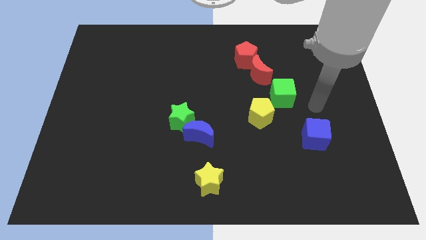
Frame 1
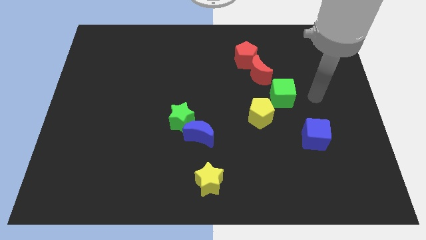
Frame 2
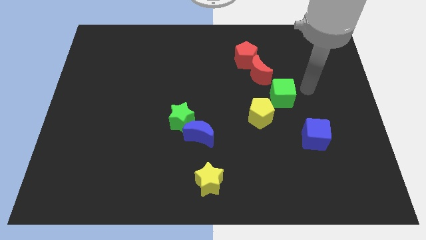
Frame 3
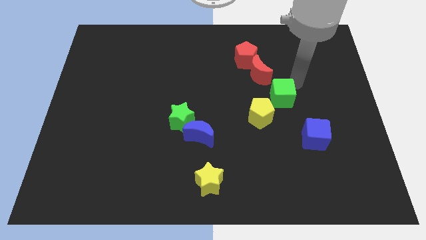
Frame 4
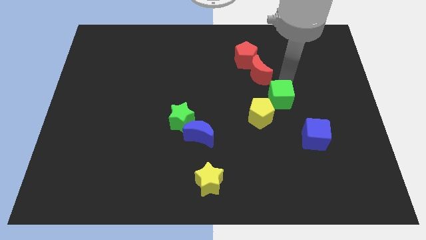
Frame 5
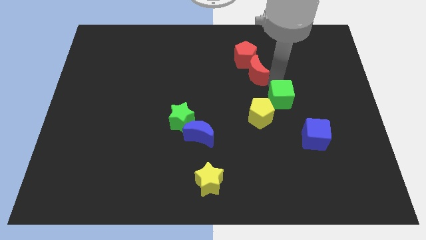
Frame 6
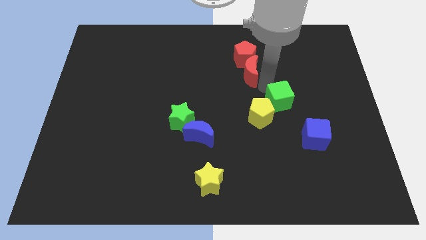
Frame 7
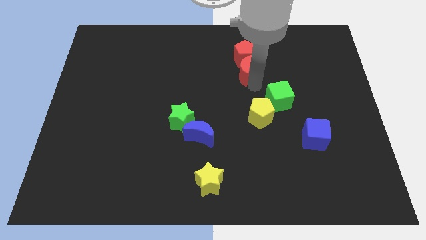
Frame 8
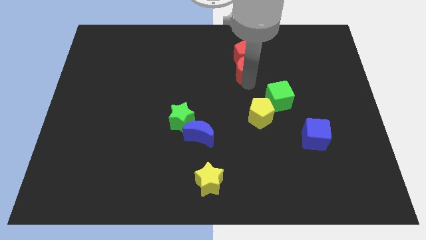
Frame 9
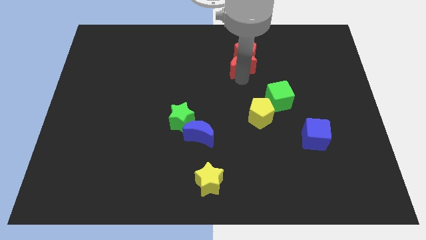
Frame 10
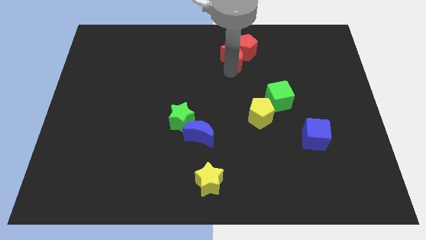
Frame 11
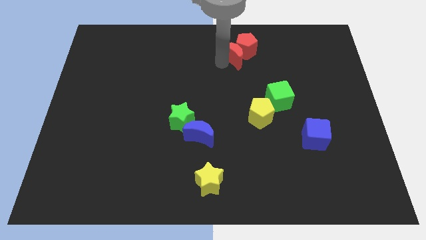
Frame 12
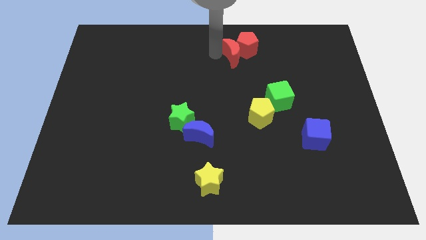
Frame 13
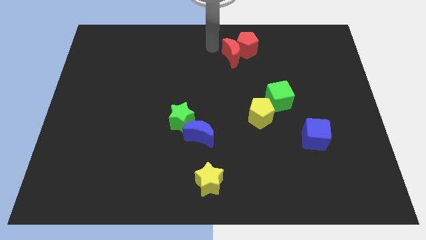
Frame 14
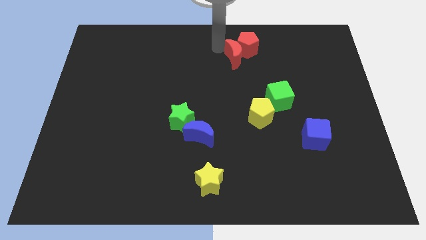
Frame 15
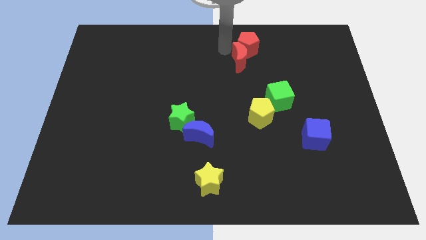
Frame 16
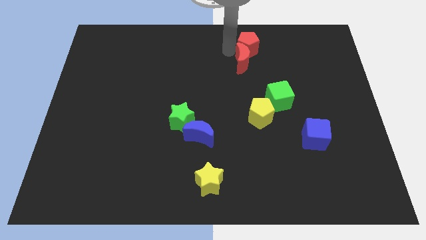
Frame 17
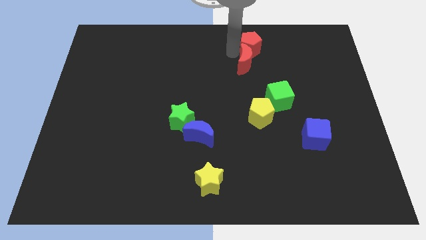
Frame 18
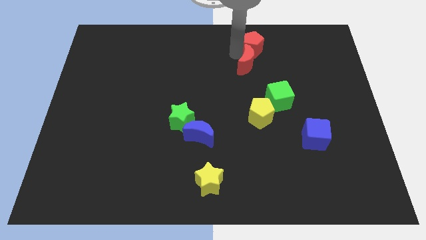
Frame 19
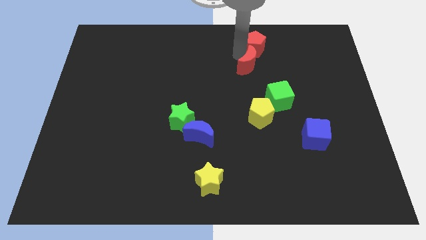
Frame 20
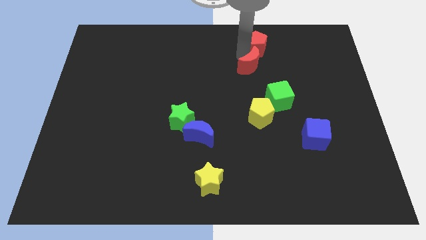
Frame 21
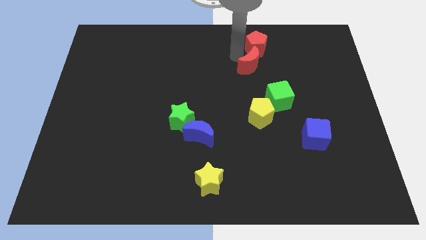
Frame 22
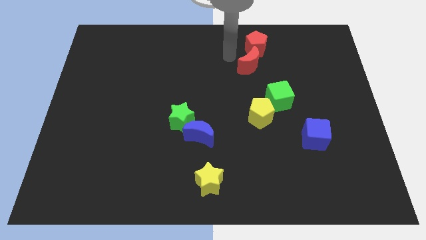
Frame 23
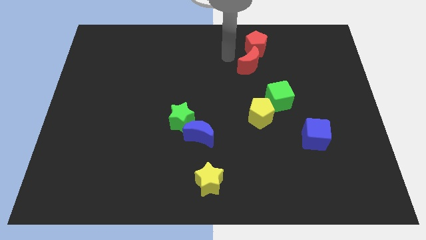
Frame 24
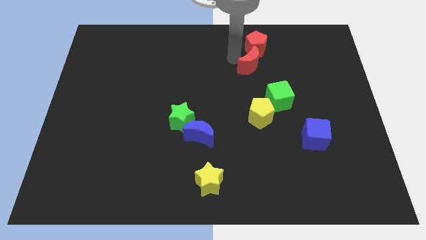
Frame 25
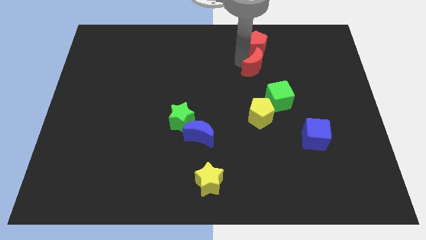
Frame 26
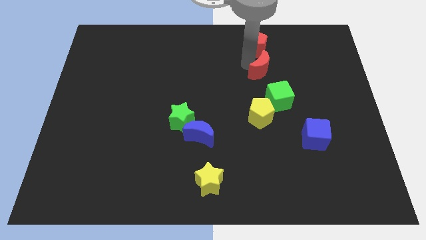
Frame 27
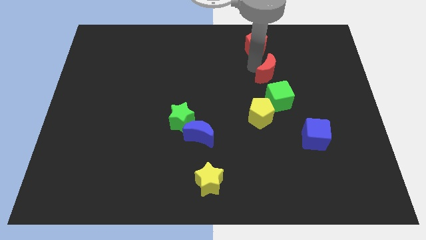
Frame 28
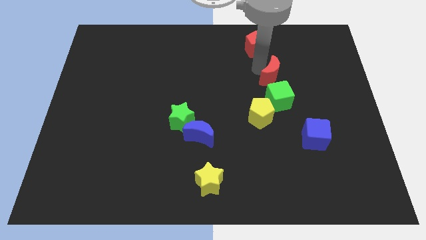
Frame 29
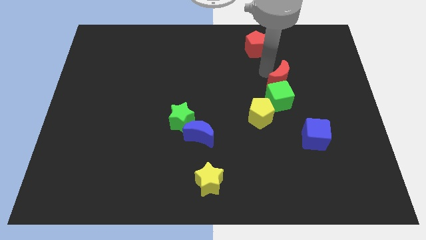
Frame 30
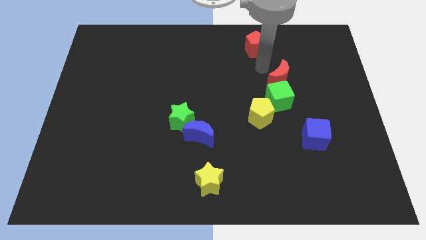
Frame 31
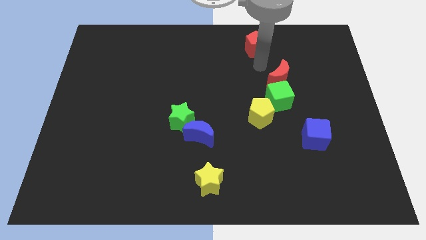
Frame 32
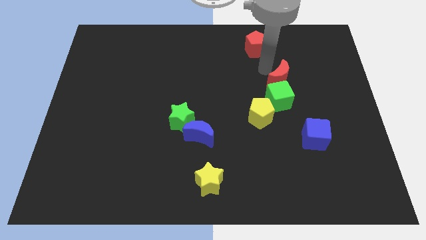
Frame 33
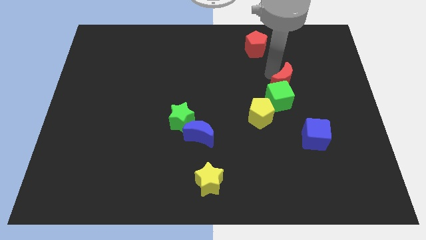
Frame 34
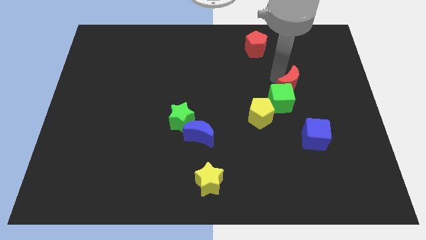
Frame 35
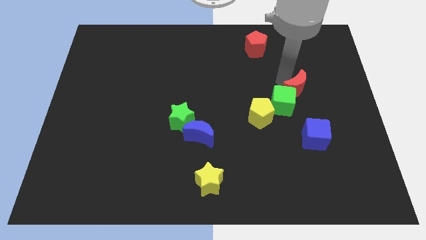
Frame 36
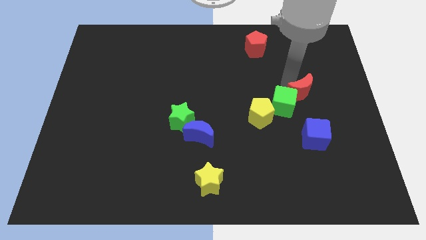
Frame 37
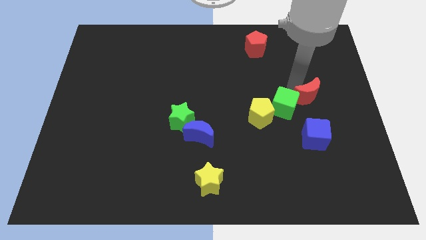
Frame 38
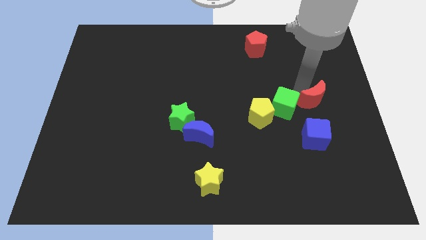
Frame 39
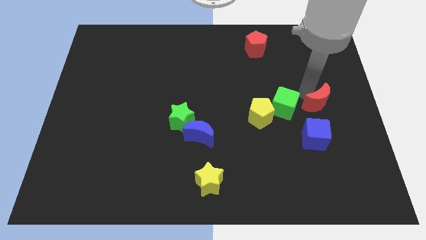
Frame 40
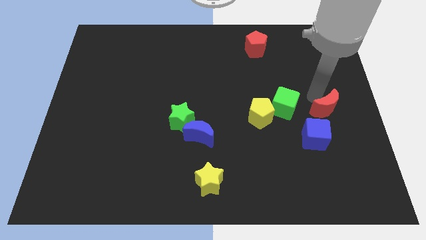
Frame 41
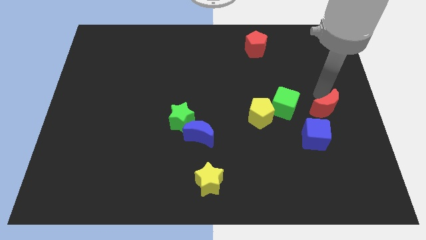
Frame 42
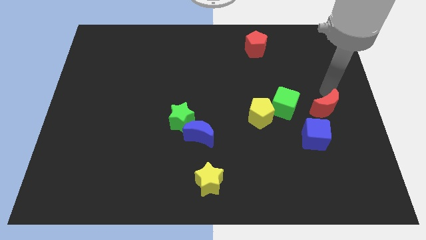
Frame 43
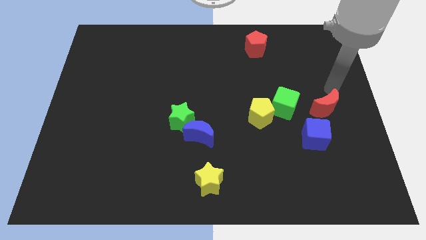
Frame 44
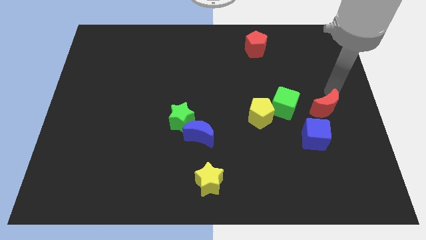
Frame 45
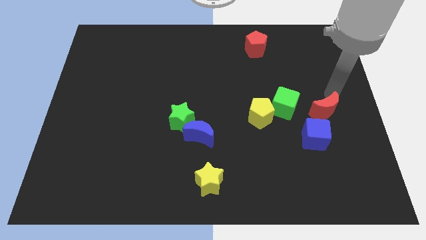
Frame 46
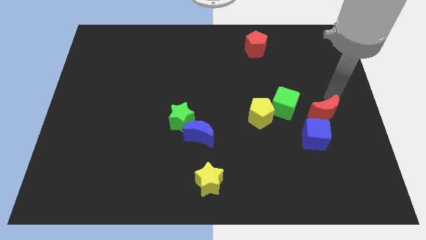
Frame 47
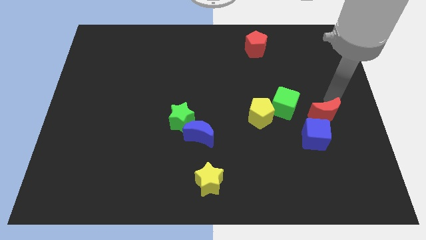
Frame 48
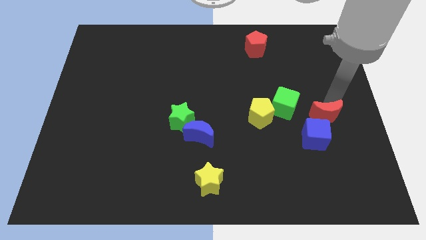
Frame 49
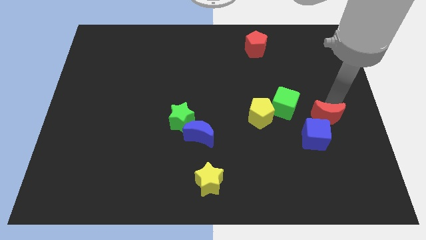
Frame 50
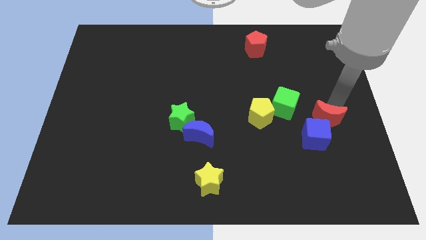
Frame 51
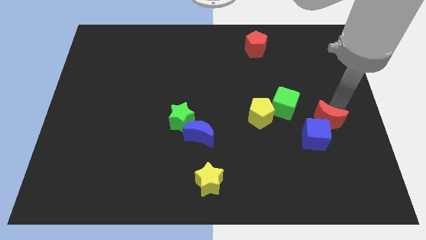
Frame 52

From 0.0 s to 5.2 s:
move the red moon towards the blue cube

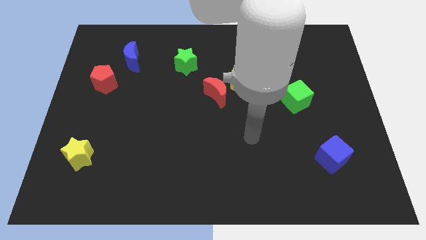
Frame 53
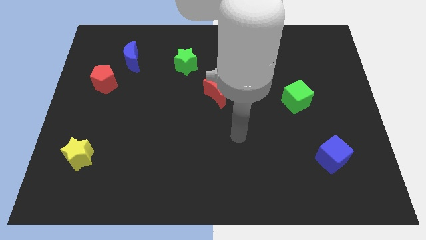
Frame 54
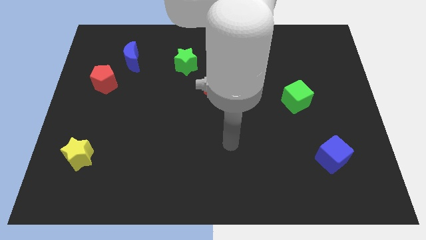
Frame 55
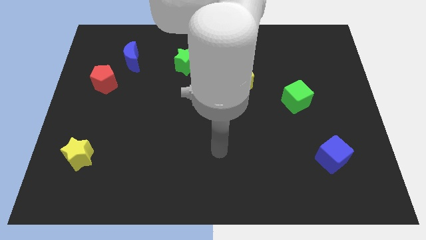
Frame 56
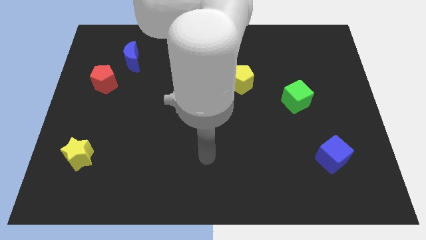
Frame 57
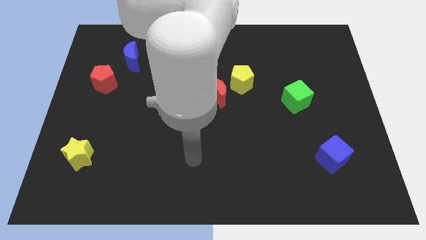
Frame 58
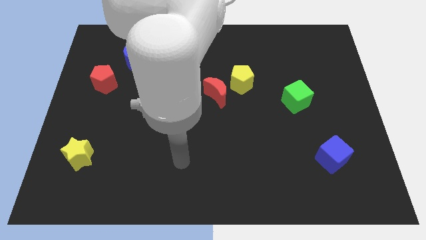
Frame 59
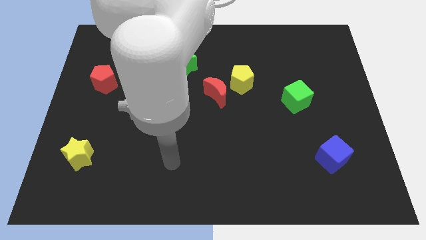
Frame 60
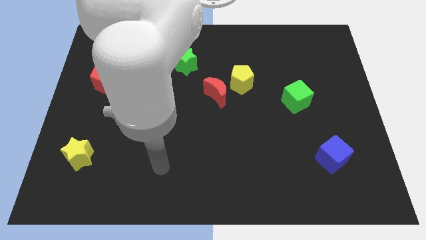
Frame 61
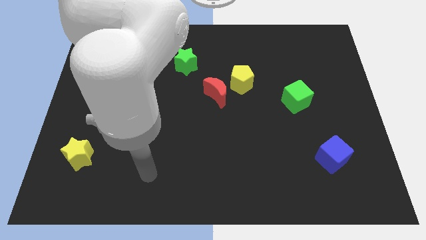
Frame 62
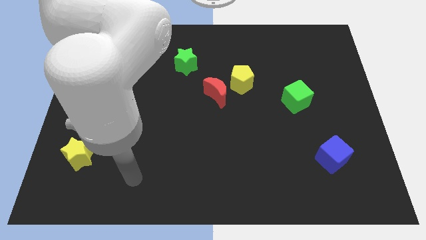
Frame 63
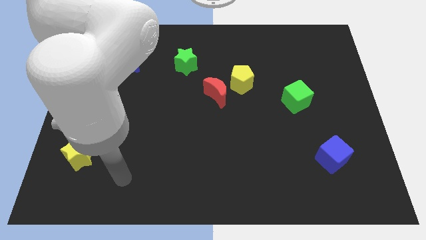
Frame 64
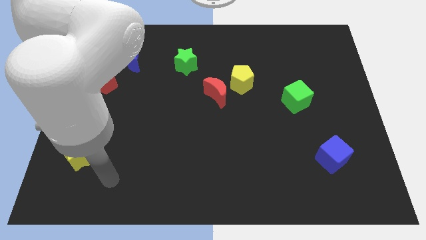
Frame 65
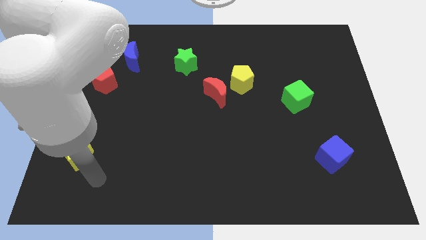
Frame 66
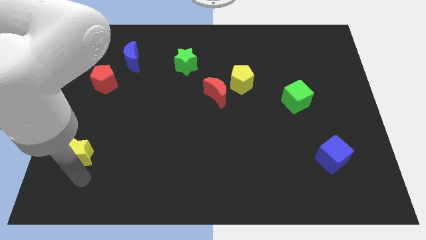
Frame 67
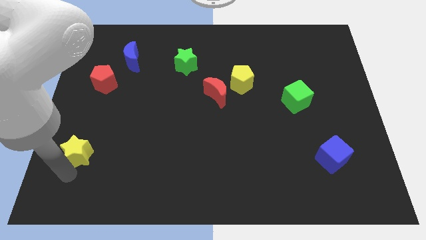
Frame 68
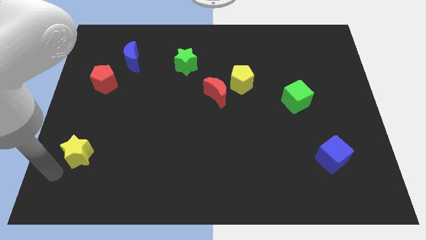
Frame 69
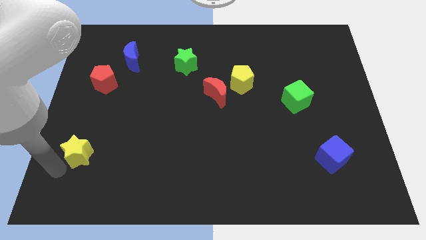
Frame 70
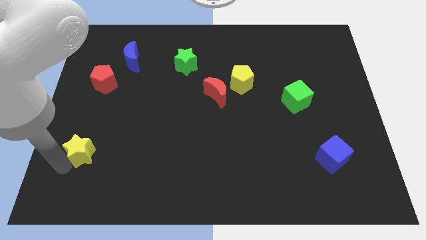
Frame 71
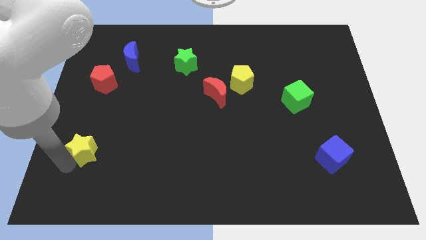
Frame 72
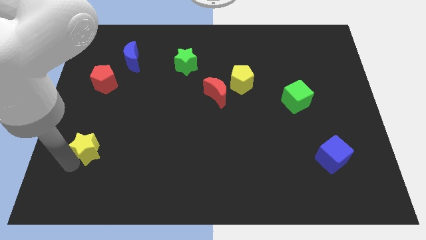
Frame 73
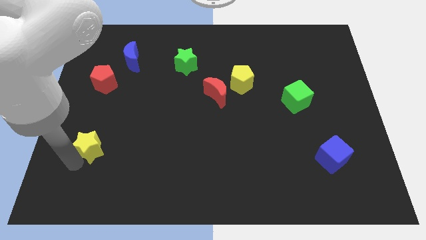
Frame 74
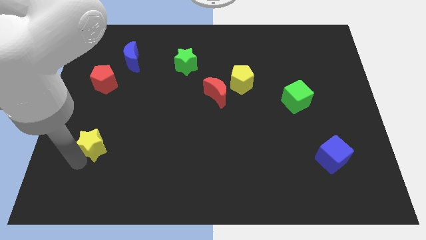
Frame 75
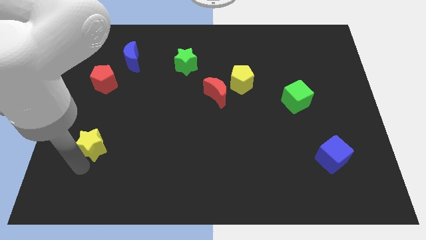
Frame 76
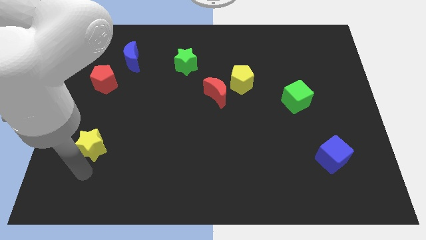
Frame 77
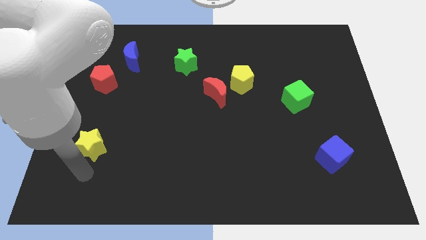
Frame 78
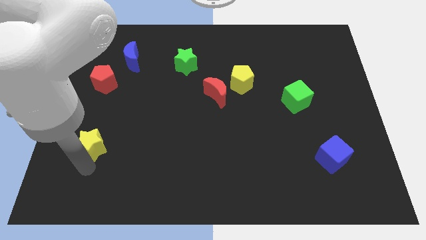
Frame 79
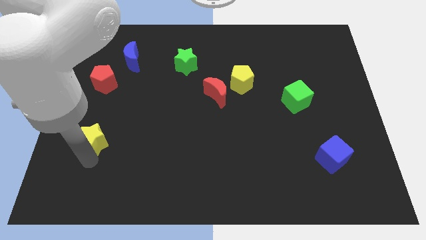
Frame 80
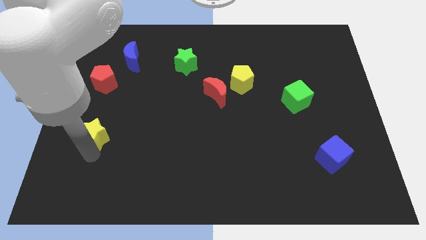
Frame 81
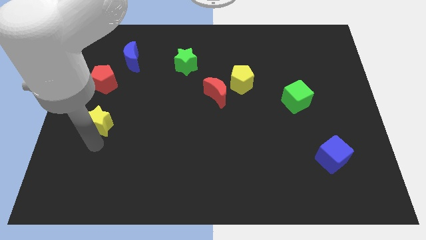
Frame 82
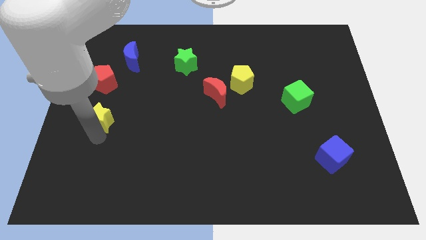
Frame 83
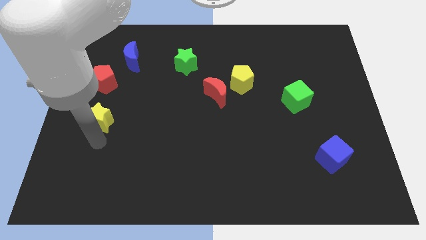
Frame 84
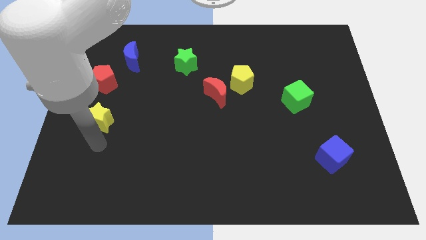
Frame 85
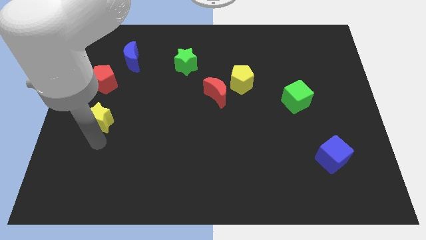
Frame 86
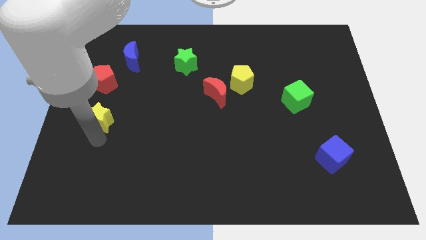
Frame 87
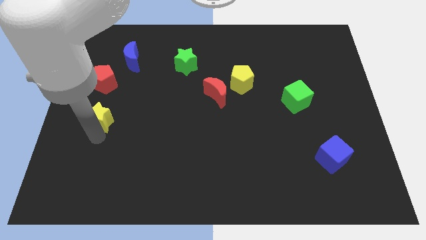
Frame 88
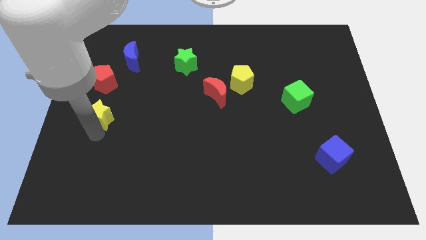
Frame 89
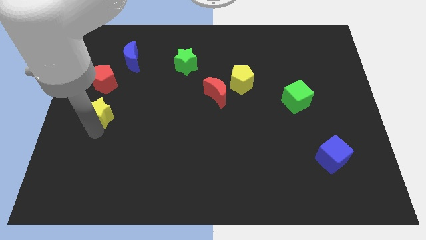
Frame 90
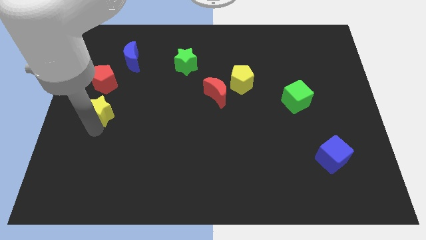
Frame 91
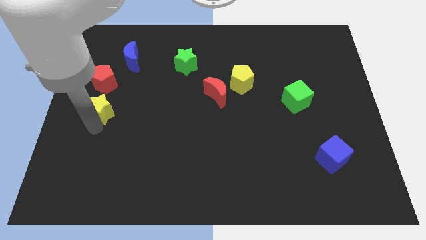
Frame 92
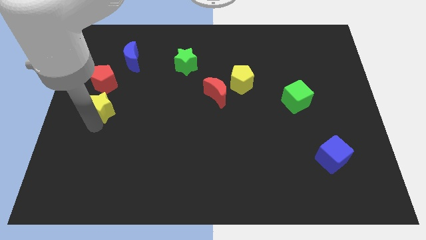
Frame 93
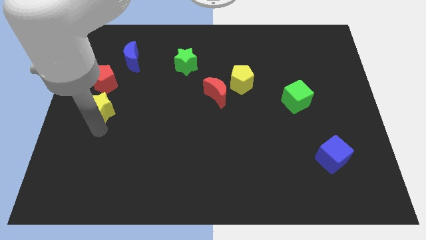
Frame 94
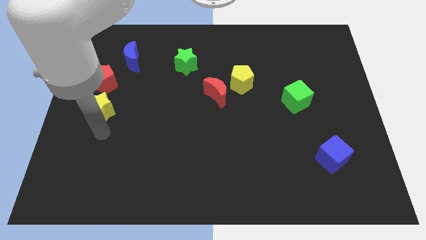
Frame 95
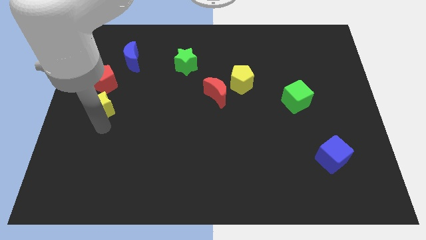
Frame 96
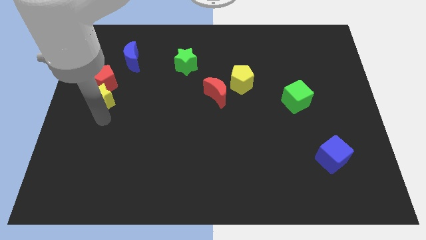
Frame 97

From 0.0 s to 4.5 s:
slide the yellow star next to the red pentagon
